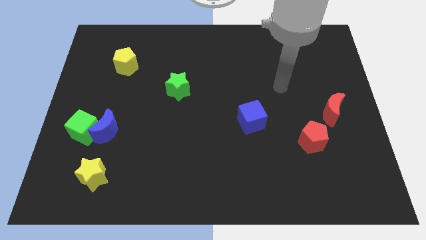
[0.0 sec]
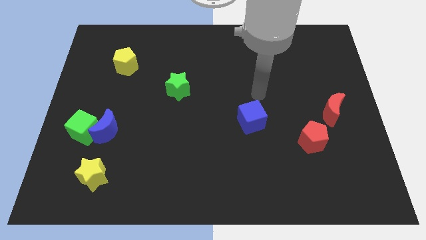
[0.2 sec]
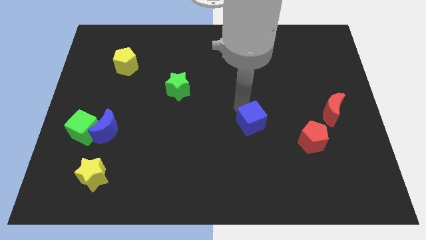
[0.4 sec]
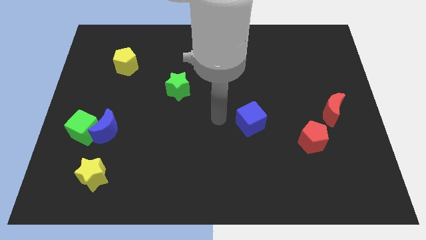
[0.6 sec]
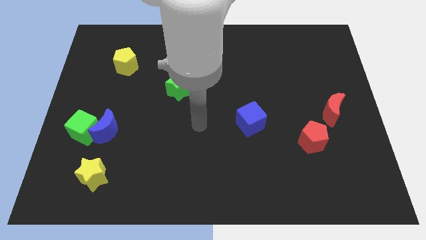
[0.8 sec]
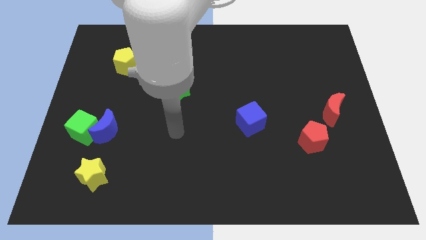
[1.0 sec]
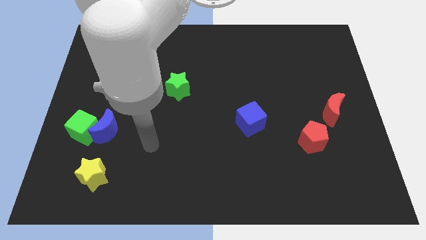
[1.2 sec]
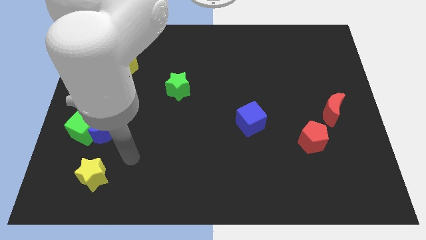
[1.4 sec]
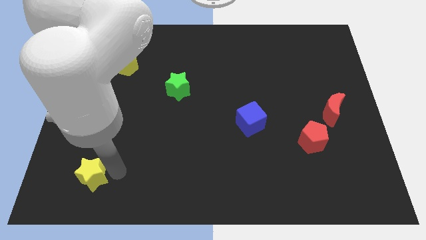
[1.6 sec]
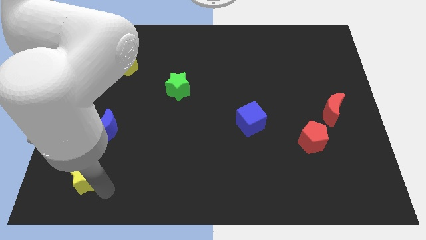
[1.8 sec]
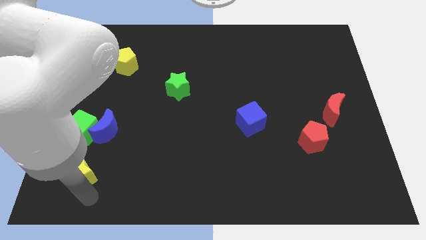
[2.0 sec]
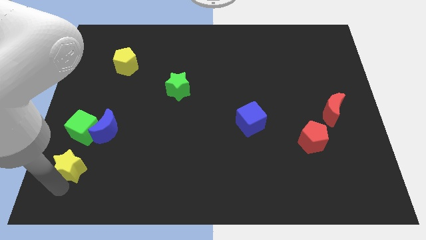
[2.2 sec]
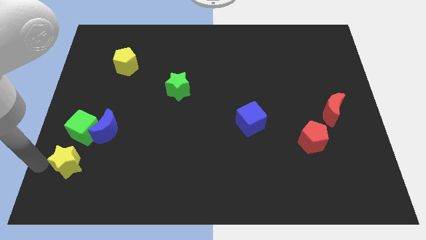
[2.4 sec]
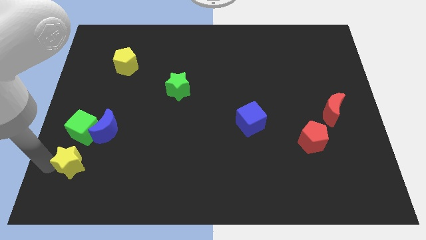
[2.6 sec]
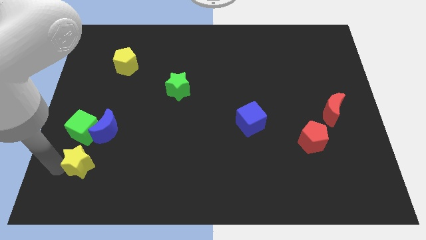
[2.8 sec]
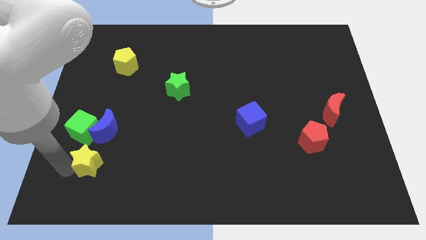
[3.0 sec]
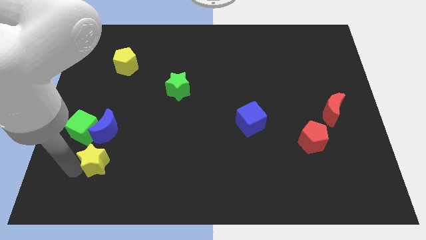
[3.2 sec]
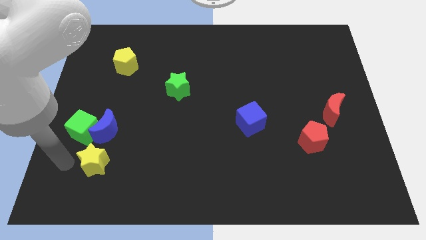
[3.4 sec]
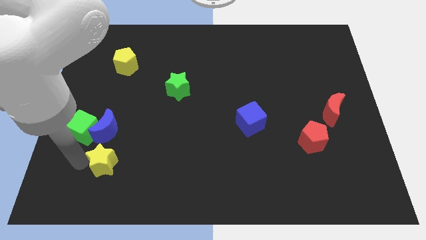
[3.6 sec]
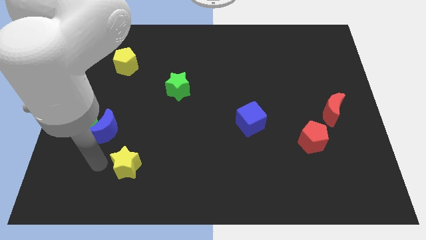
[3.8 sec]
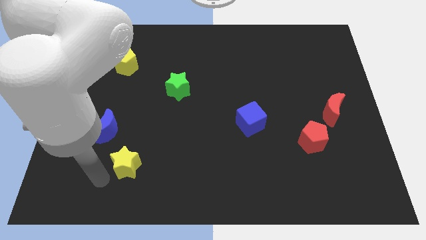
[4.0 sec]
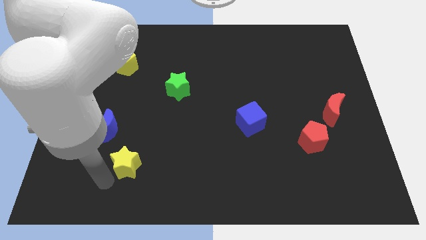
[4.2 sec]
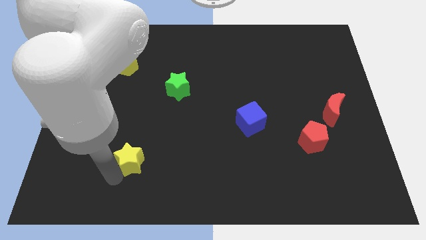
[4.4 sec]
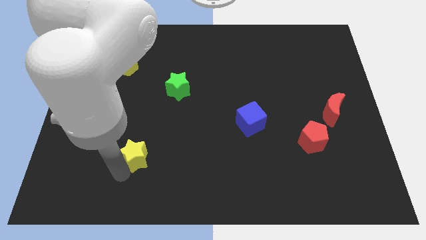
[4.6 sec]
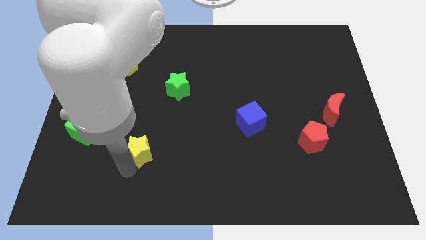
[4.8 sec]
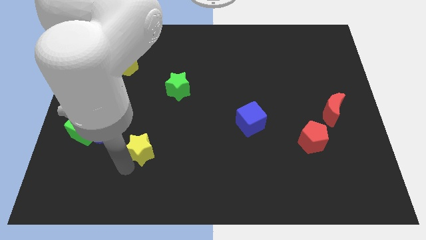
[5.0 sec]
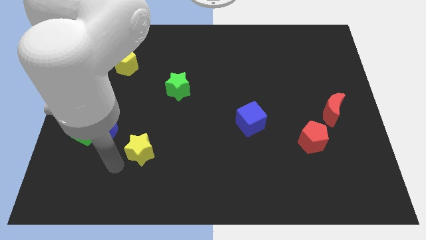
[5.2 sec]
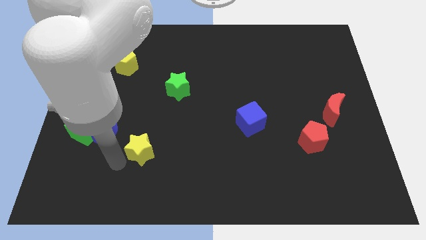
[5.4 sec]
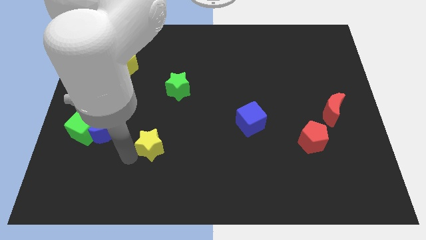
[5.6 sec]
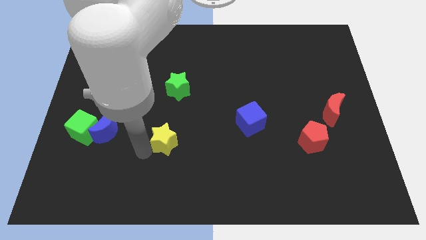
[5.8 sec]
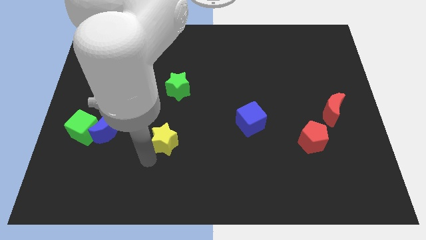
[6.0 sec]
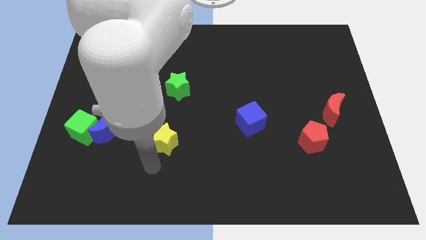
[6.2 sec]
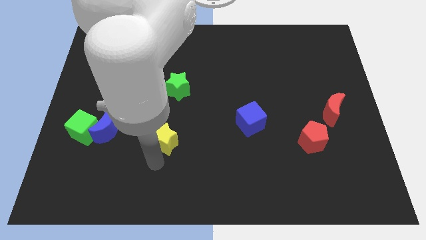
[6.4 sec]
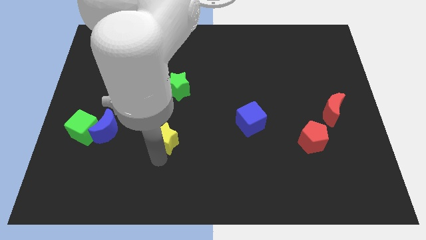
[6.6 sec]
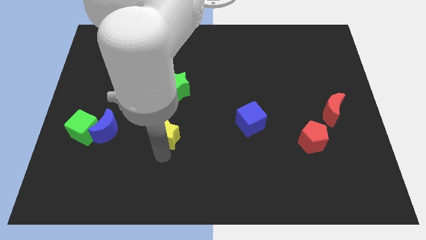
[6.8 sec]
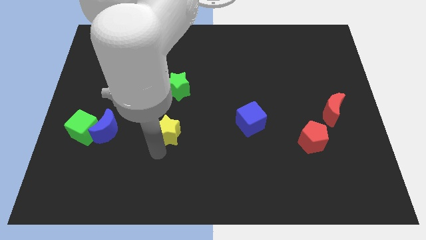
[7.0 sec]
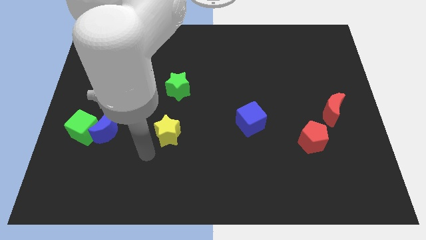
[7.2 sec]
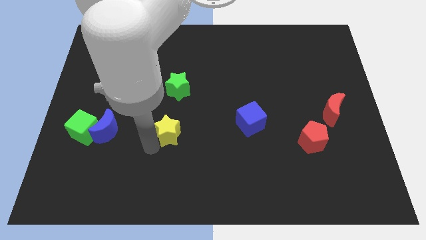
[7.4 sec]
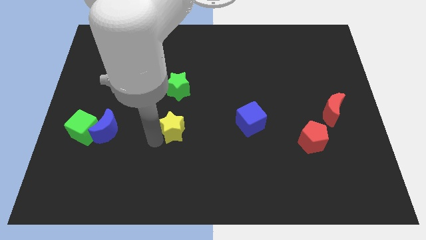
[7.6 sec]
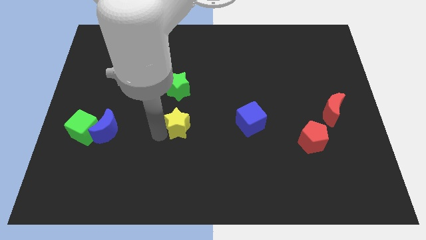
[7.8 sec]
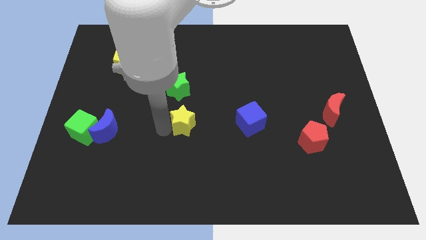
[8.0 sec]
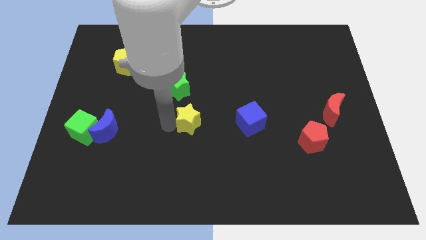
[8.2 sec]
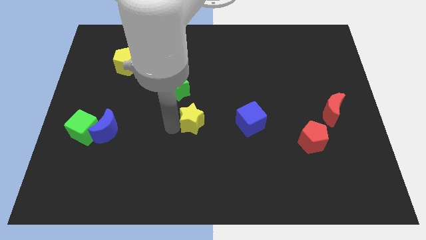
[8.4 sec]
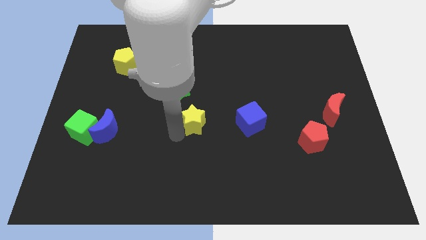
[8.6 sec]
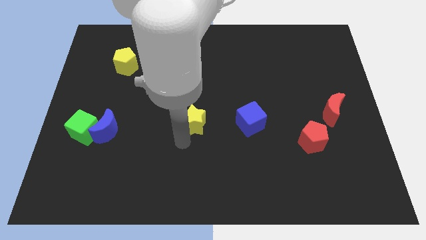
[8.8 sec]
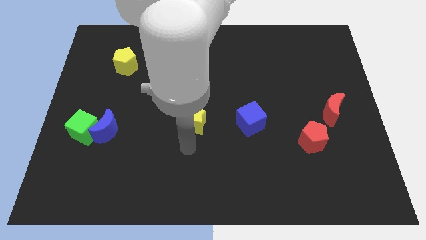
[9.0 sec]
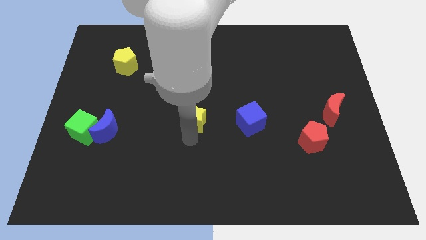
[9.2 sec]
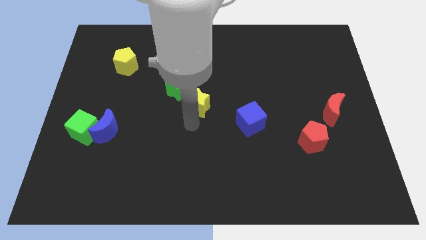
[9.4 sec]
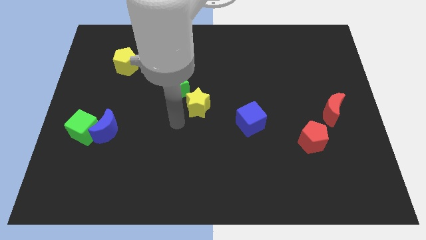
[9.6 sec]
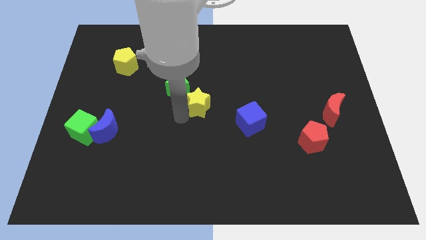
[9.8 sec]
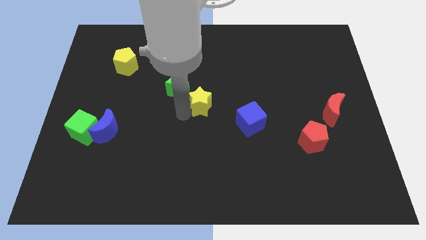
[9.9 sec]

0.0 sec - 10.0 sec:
slide the yellow star right of the green star

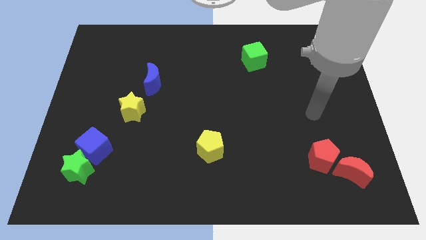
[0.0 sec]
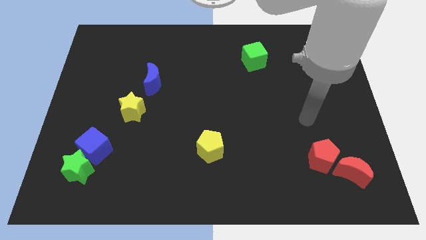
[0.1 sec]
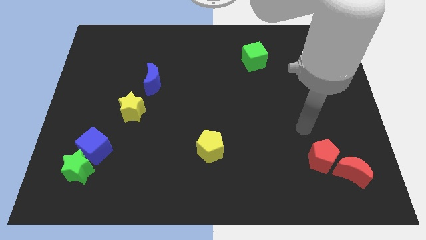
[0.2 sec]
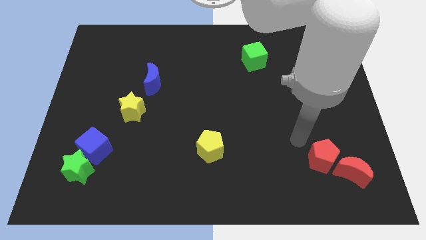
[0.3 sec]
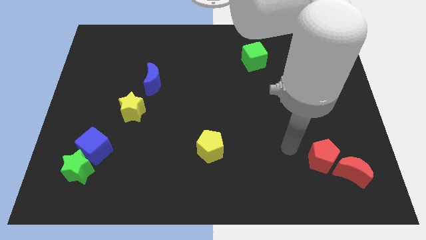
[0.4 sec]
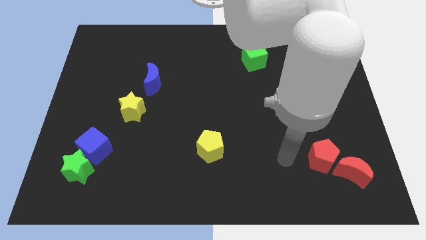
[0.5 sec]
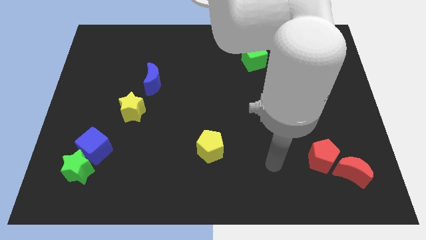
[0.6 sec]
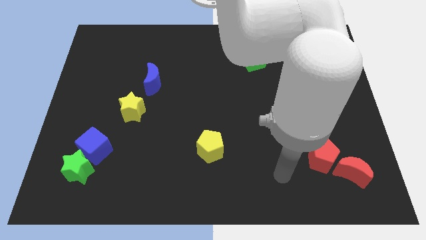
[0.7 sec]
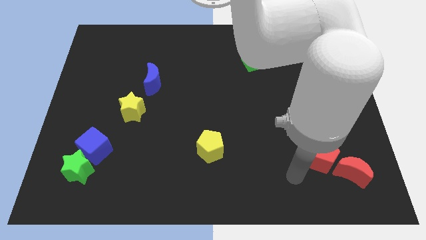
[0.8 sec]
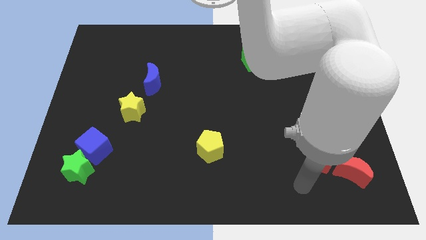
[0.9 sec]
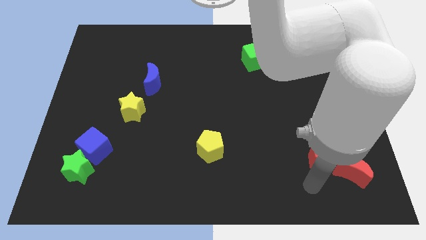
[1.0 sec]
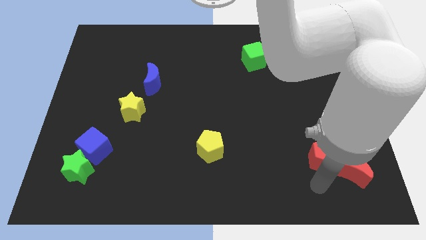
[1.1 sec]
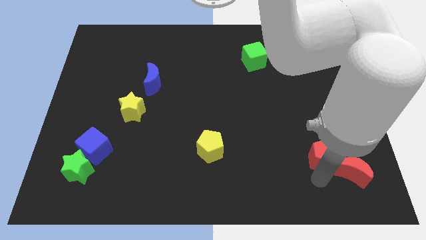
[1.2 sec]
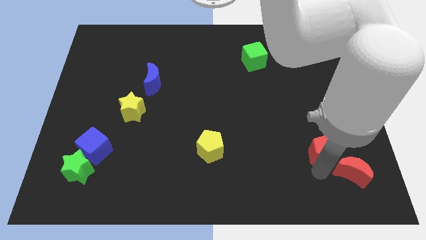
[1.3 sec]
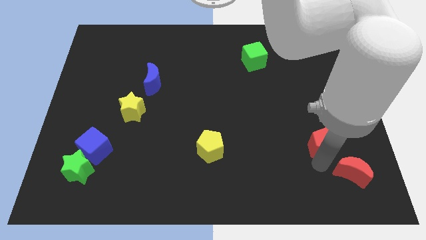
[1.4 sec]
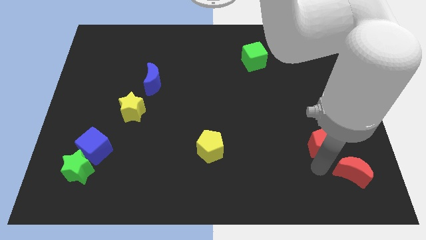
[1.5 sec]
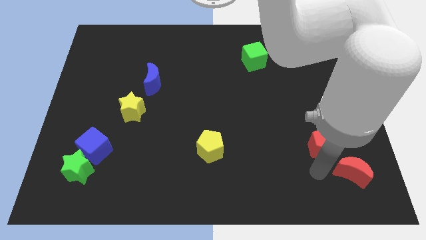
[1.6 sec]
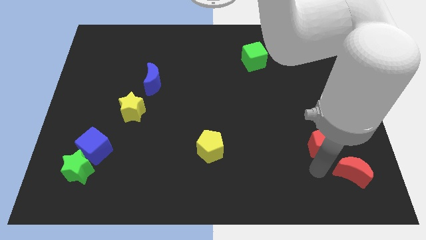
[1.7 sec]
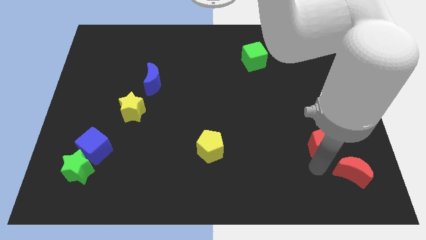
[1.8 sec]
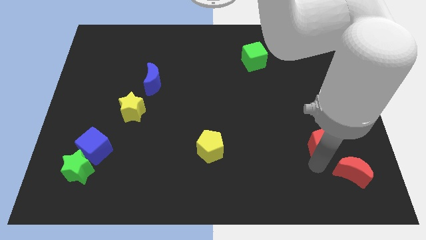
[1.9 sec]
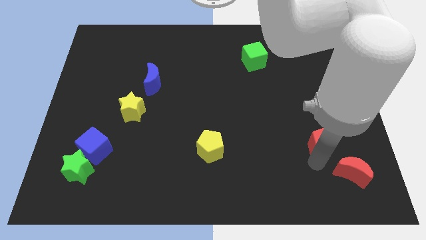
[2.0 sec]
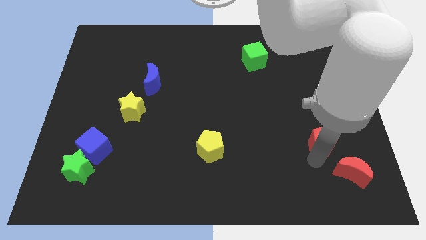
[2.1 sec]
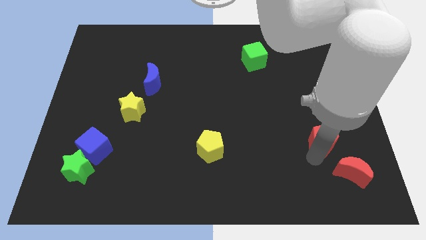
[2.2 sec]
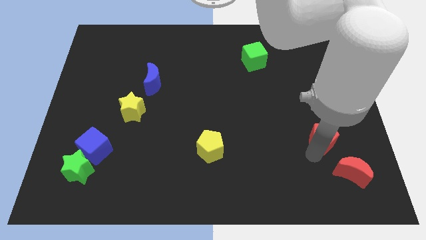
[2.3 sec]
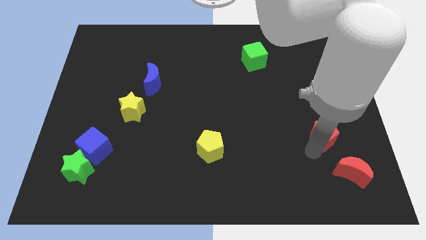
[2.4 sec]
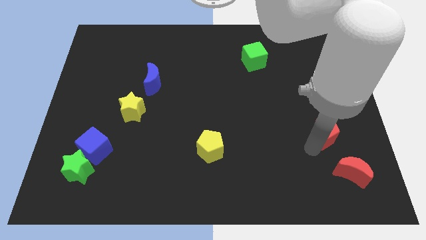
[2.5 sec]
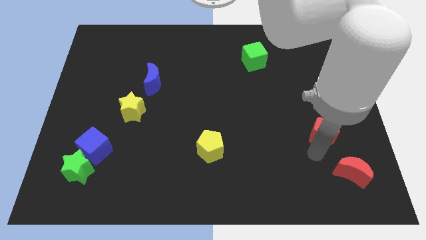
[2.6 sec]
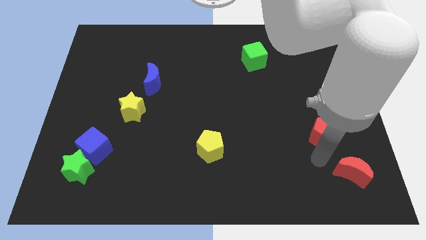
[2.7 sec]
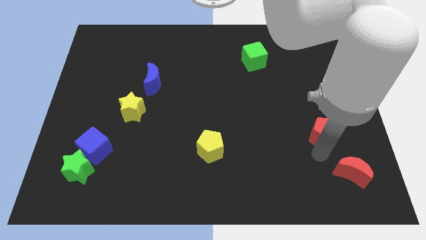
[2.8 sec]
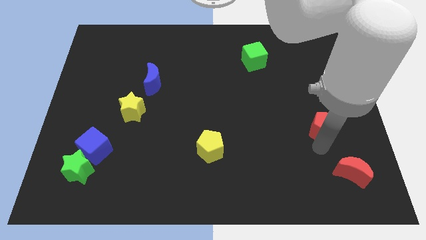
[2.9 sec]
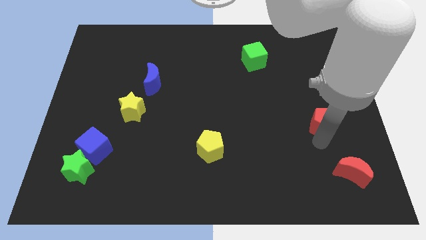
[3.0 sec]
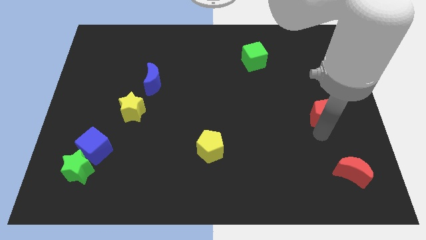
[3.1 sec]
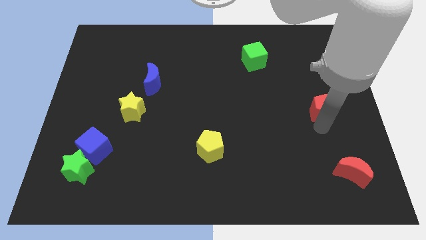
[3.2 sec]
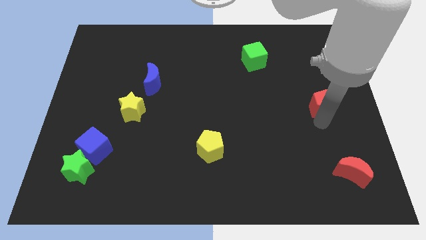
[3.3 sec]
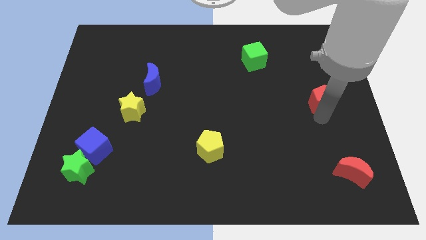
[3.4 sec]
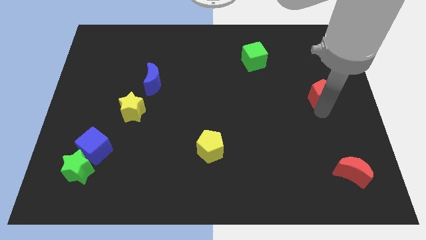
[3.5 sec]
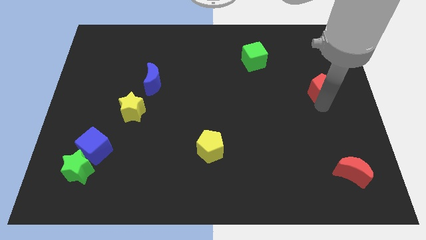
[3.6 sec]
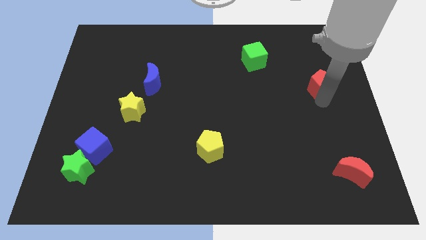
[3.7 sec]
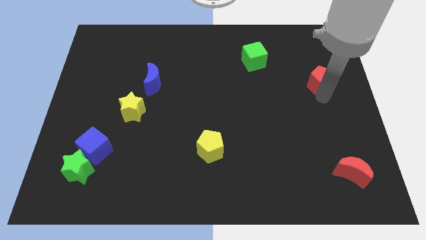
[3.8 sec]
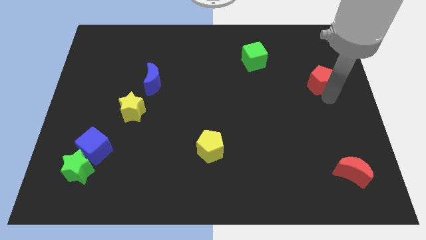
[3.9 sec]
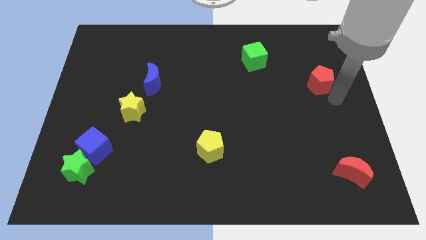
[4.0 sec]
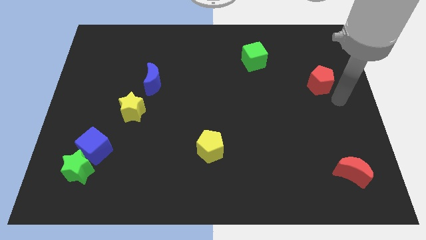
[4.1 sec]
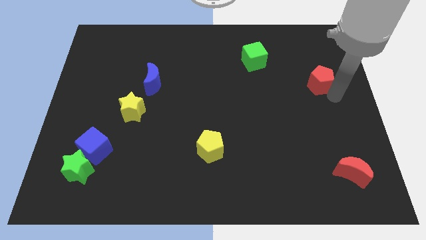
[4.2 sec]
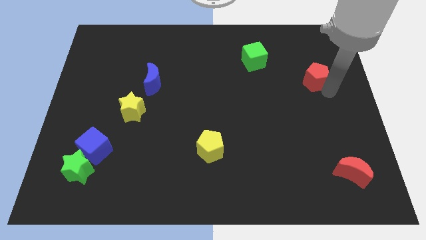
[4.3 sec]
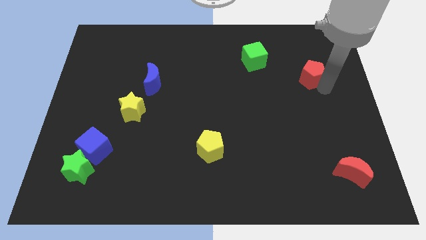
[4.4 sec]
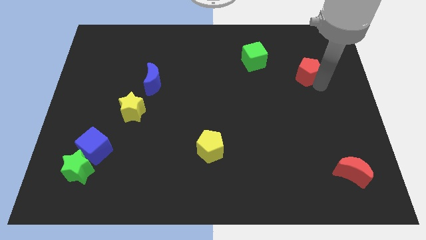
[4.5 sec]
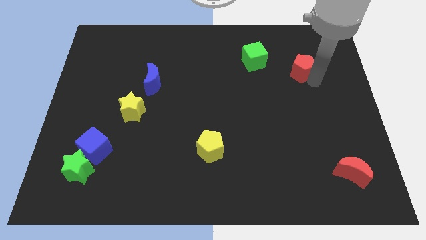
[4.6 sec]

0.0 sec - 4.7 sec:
put the red pentagon just right of the green cube
